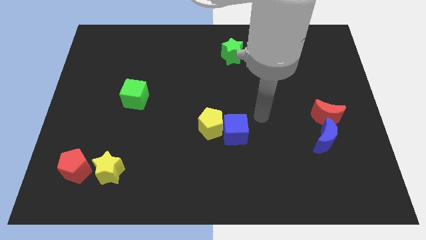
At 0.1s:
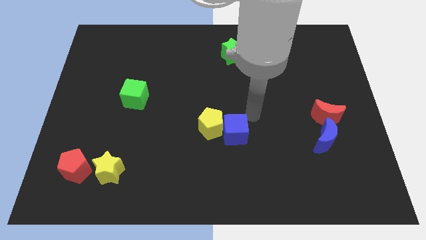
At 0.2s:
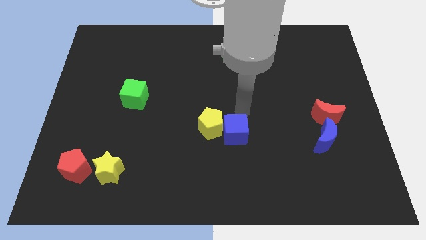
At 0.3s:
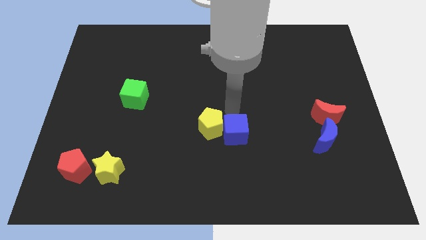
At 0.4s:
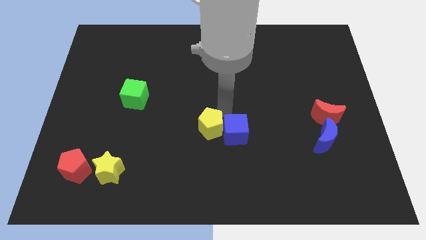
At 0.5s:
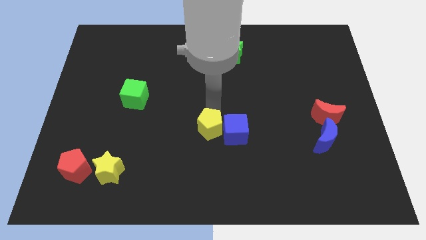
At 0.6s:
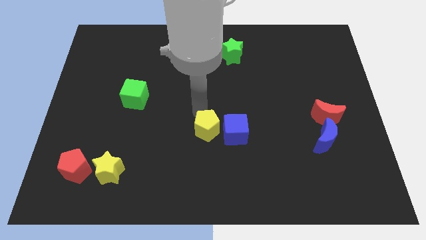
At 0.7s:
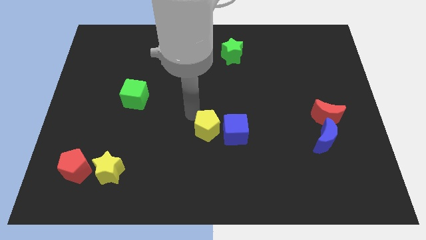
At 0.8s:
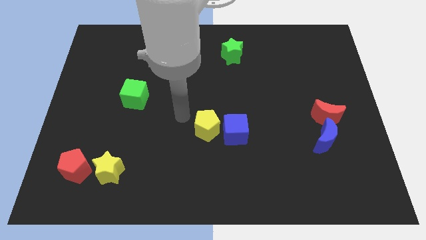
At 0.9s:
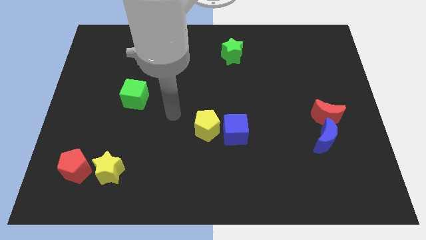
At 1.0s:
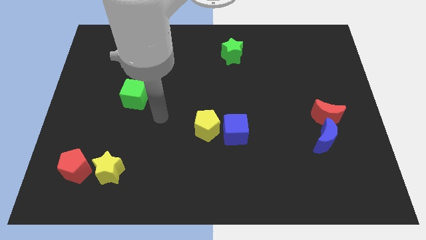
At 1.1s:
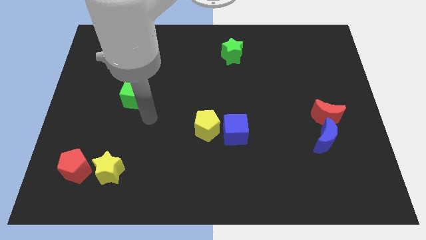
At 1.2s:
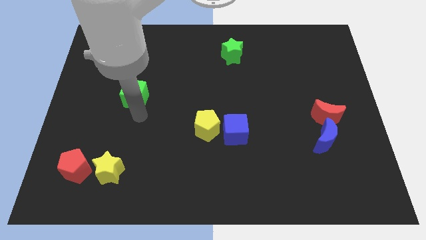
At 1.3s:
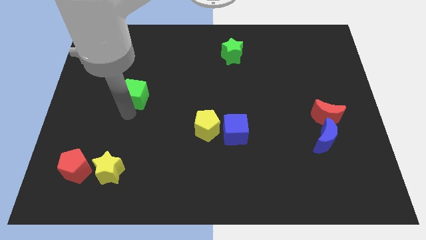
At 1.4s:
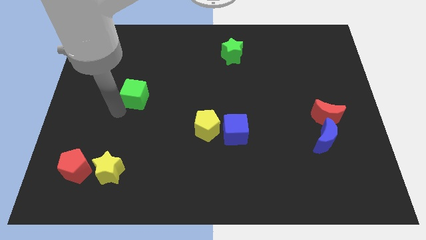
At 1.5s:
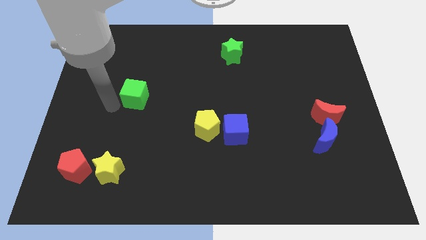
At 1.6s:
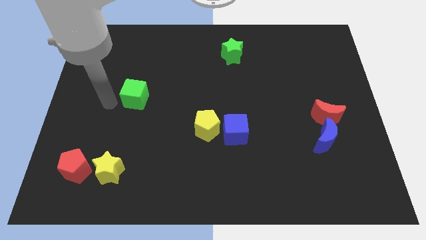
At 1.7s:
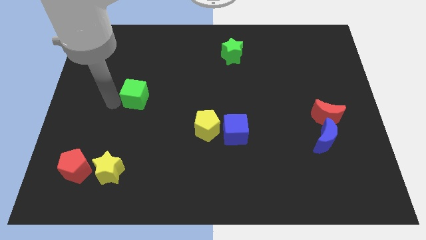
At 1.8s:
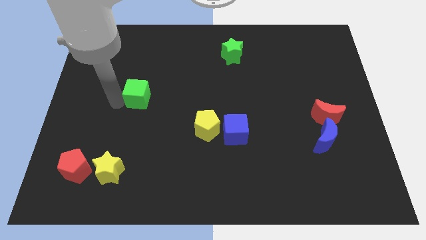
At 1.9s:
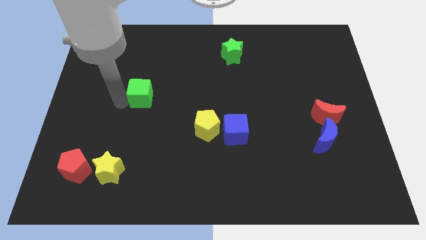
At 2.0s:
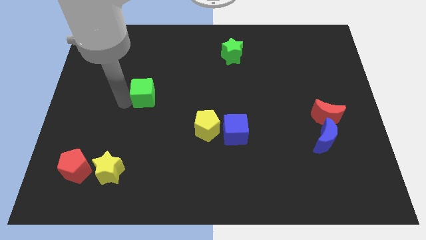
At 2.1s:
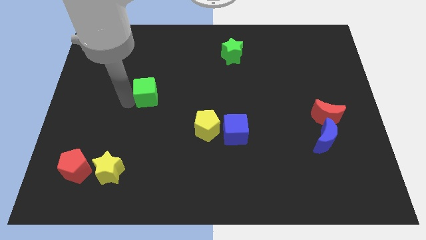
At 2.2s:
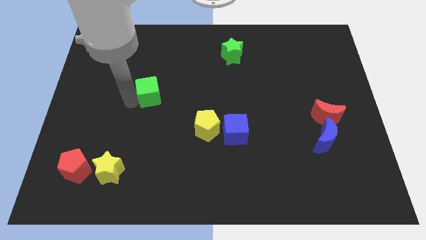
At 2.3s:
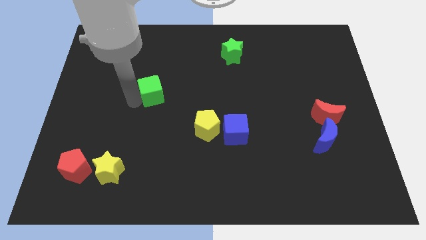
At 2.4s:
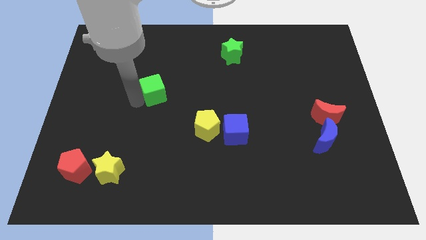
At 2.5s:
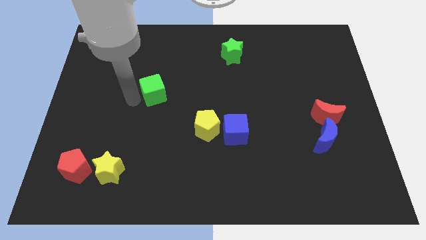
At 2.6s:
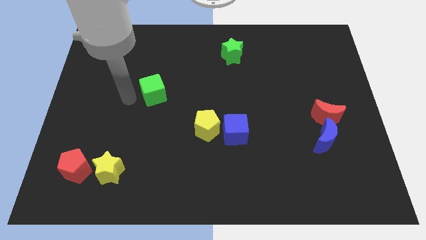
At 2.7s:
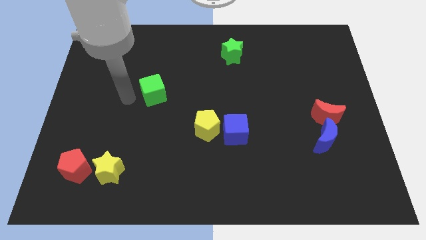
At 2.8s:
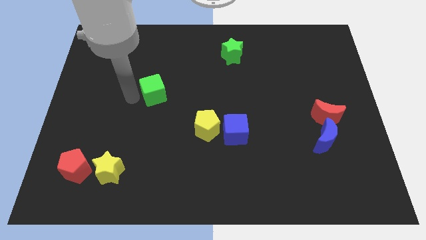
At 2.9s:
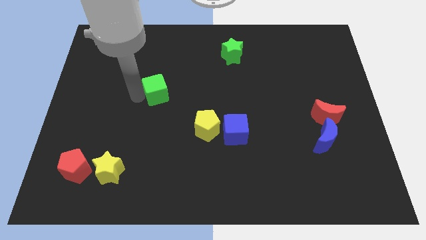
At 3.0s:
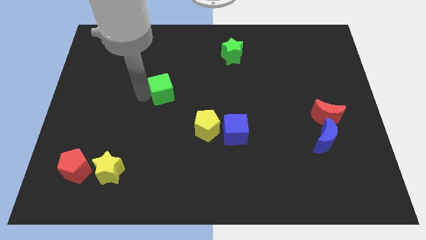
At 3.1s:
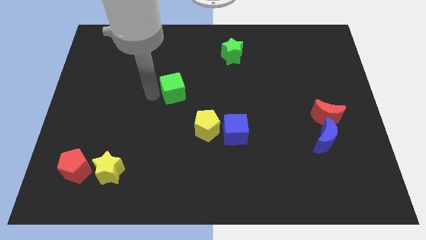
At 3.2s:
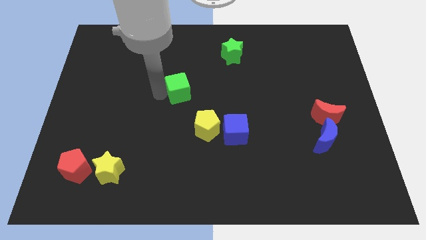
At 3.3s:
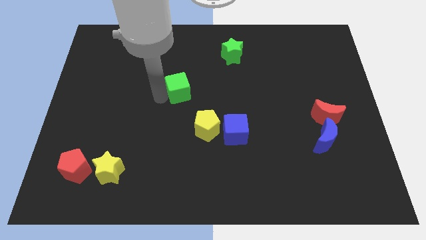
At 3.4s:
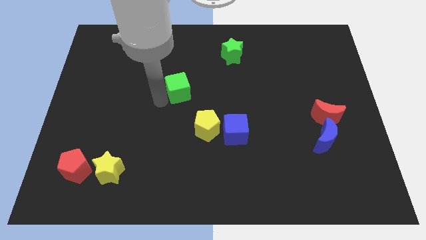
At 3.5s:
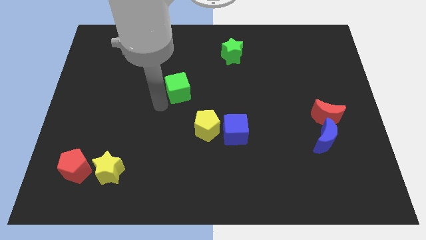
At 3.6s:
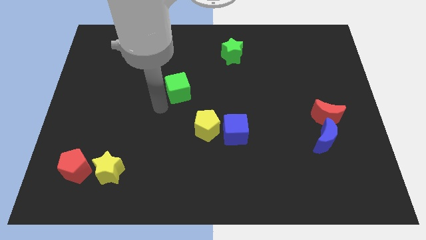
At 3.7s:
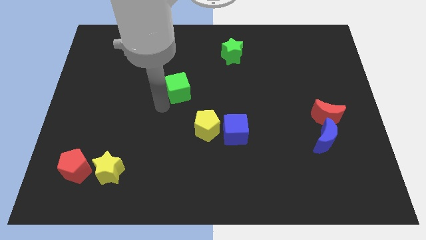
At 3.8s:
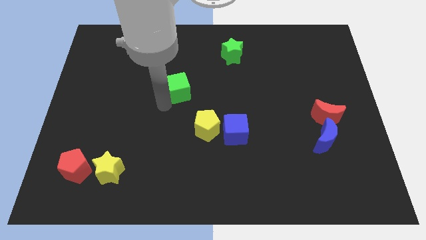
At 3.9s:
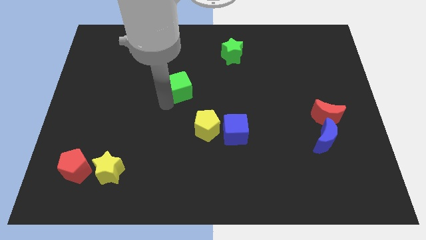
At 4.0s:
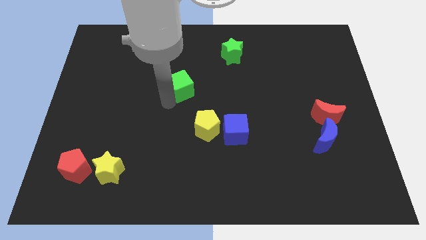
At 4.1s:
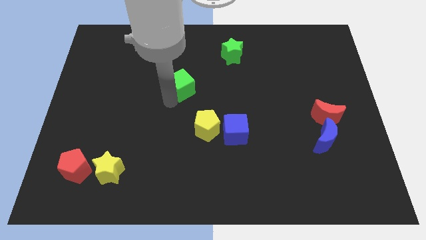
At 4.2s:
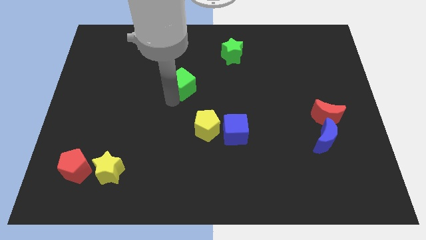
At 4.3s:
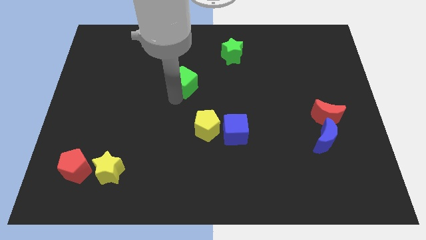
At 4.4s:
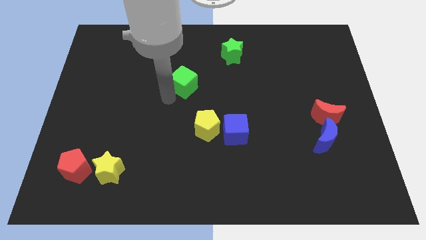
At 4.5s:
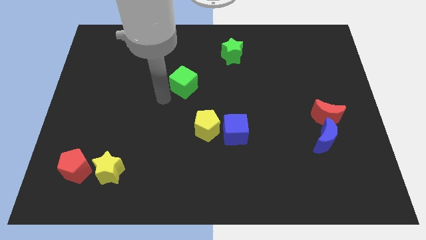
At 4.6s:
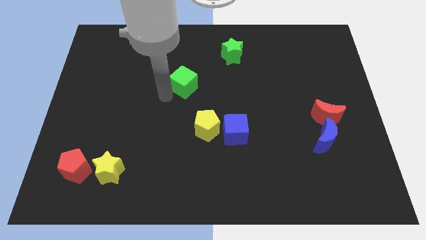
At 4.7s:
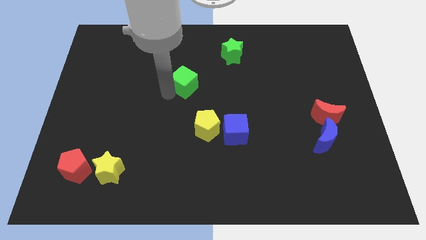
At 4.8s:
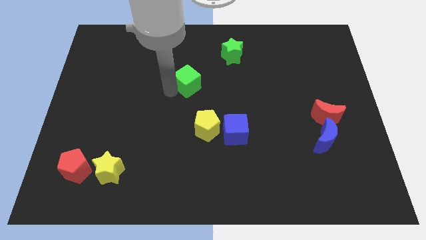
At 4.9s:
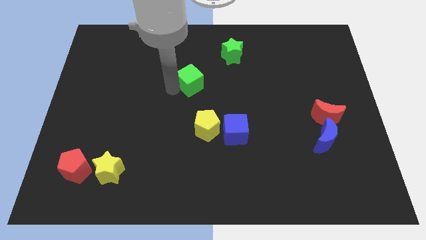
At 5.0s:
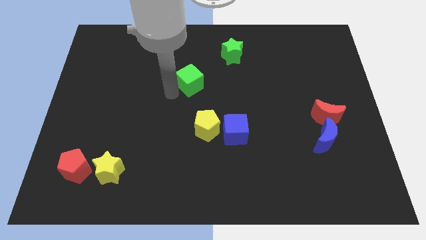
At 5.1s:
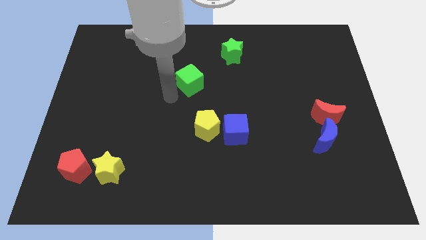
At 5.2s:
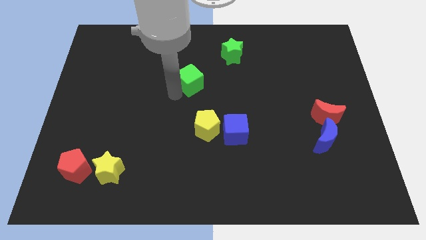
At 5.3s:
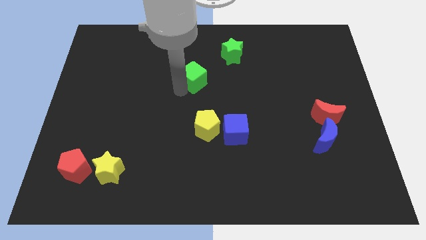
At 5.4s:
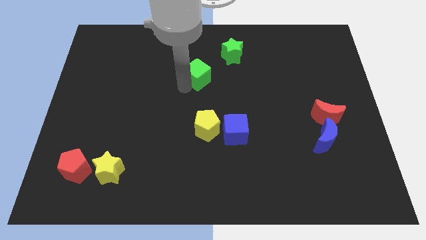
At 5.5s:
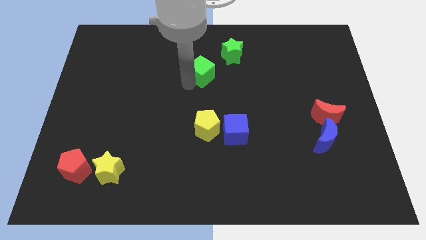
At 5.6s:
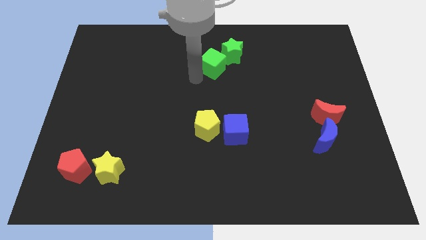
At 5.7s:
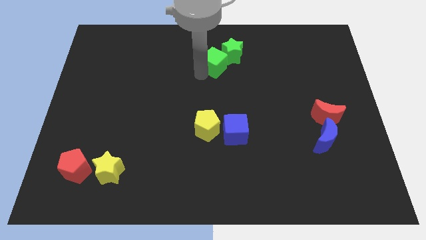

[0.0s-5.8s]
push the green cube close to the green star

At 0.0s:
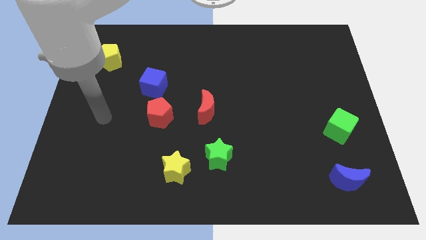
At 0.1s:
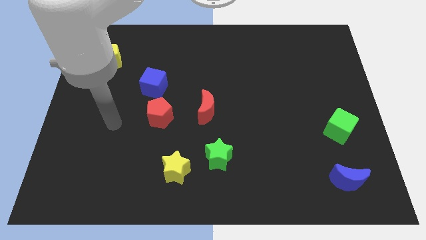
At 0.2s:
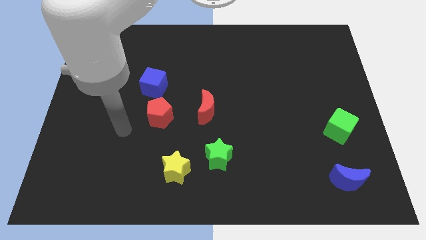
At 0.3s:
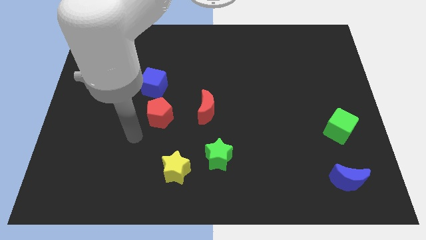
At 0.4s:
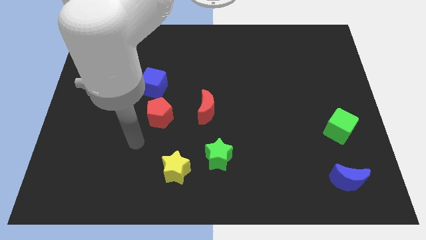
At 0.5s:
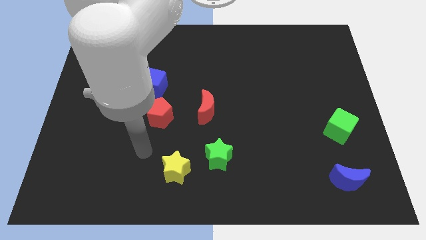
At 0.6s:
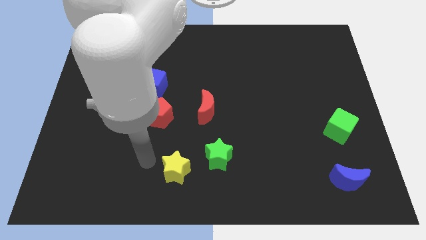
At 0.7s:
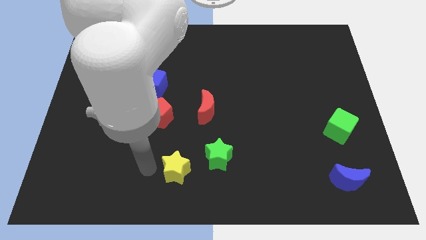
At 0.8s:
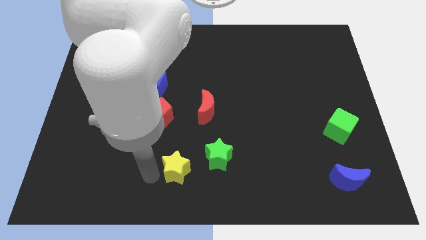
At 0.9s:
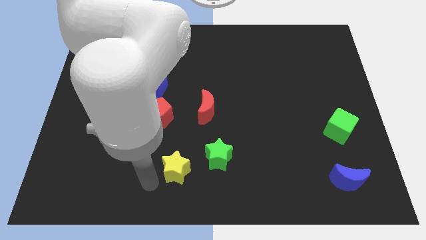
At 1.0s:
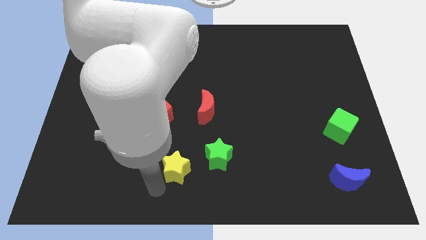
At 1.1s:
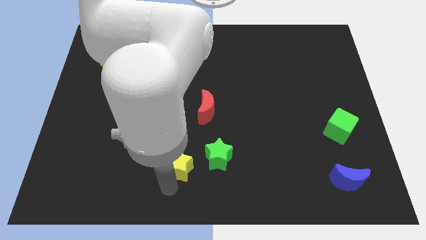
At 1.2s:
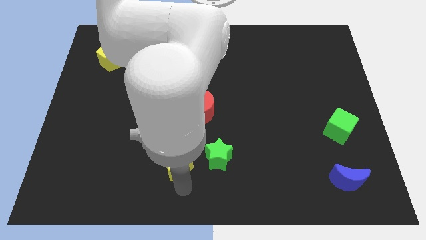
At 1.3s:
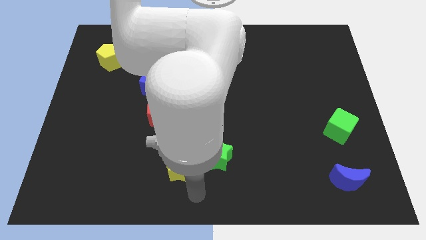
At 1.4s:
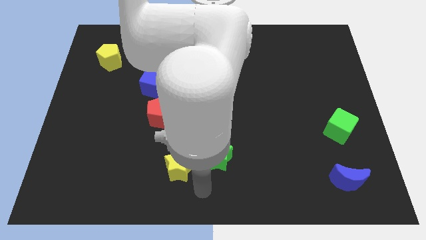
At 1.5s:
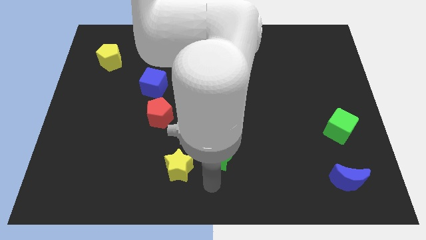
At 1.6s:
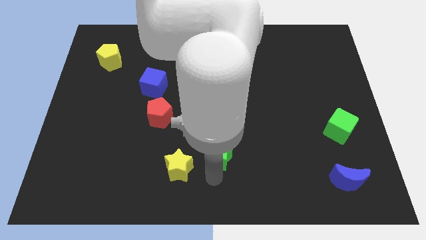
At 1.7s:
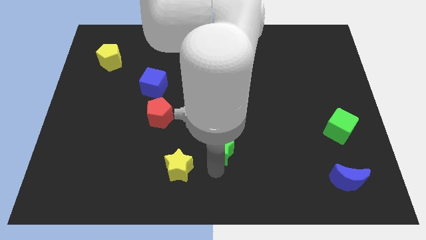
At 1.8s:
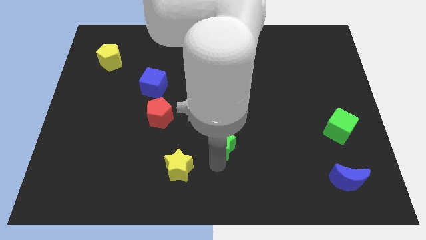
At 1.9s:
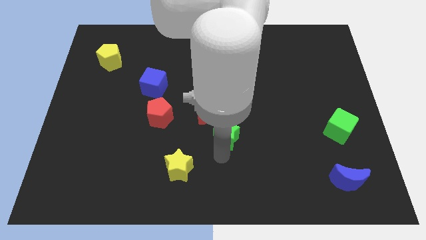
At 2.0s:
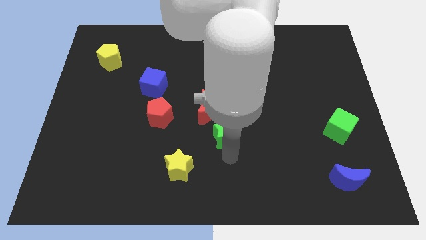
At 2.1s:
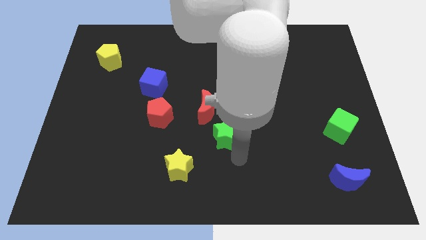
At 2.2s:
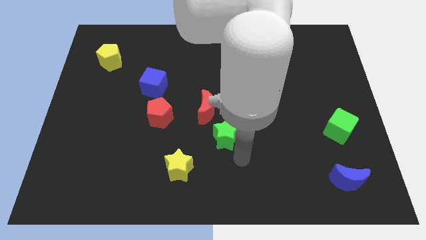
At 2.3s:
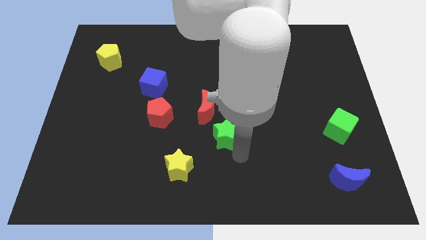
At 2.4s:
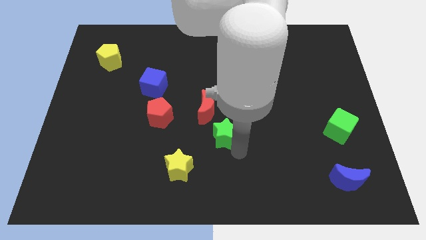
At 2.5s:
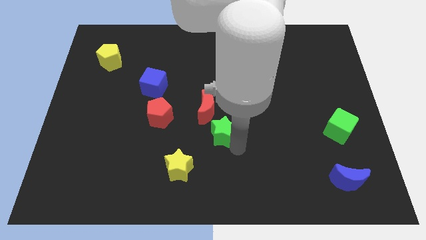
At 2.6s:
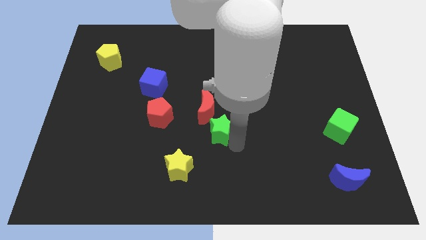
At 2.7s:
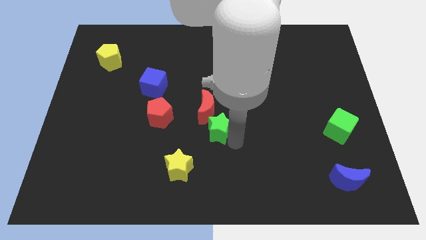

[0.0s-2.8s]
slide the green star to the red moon
